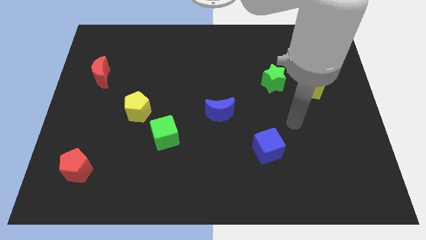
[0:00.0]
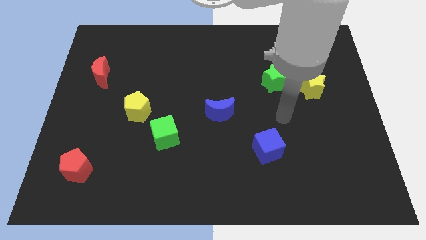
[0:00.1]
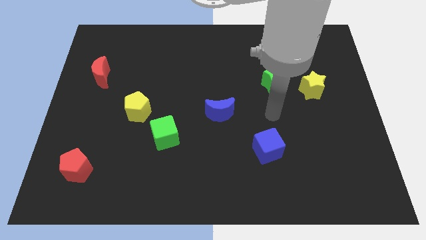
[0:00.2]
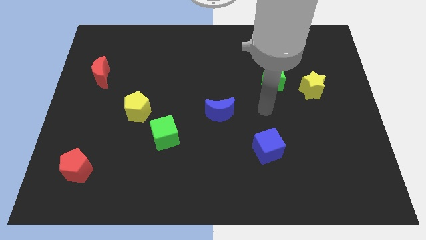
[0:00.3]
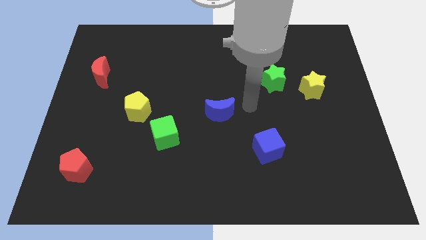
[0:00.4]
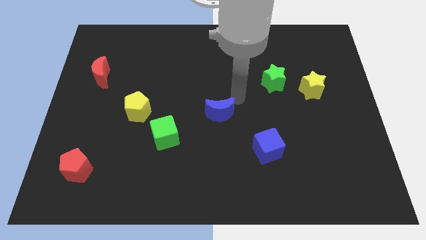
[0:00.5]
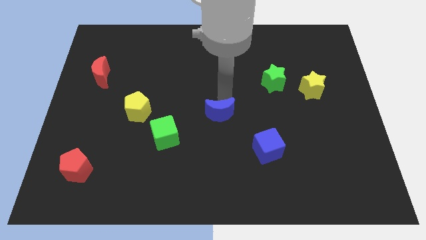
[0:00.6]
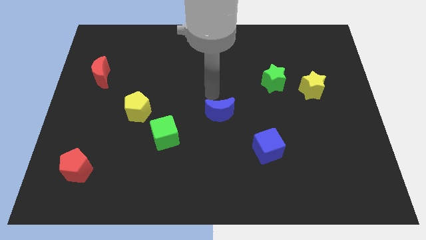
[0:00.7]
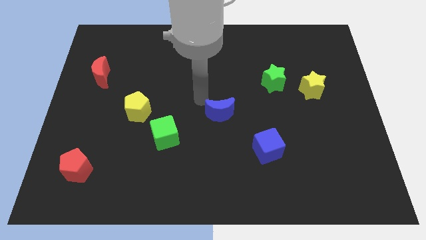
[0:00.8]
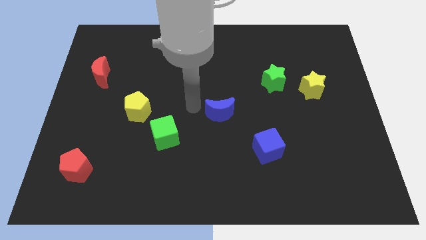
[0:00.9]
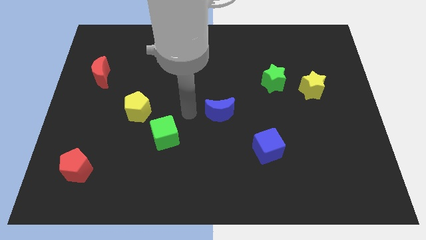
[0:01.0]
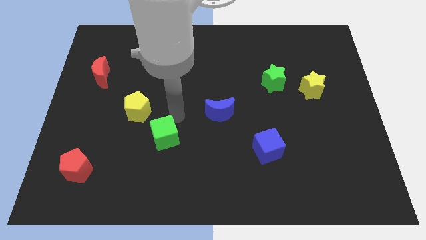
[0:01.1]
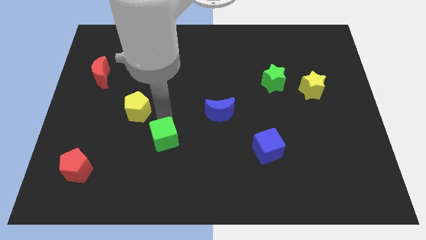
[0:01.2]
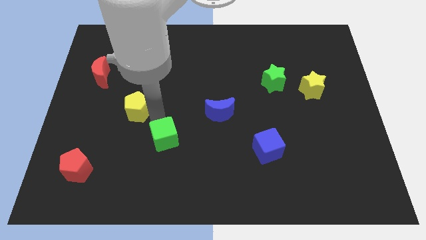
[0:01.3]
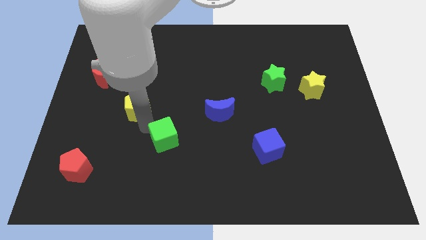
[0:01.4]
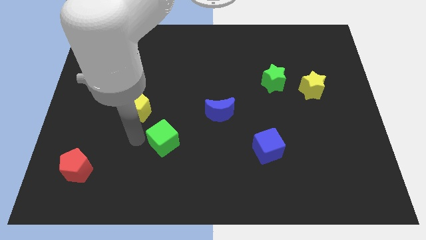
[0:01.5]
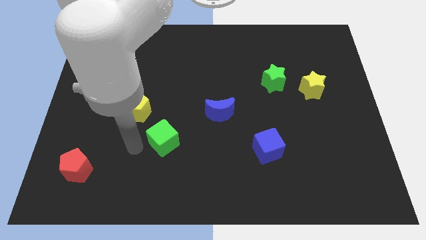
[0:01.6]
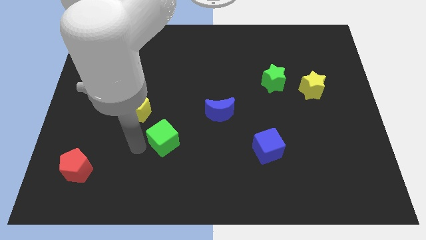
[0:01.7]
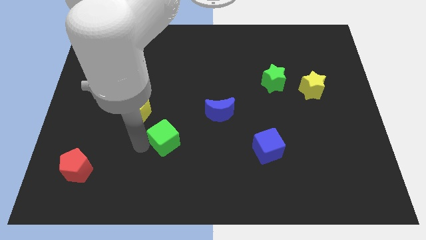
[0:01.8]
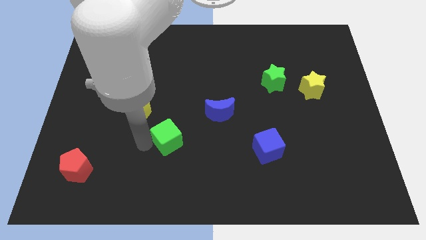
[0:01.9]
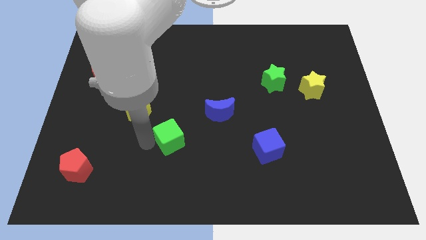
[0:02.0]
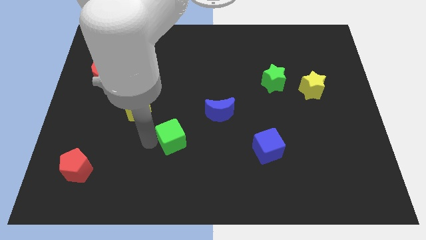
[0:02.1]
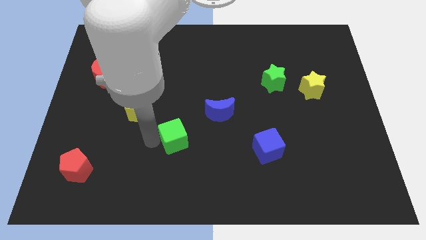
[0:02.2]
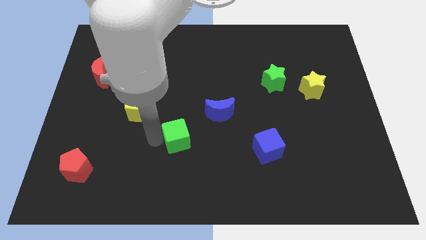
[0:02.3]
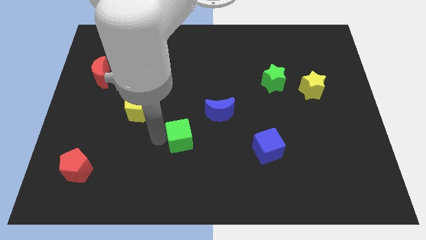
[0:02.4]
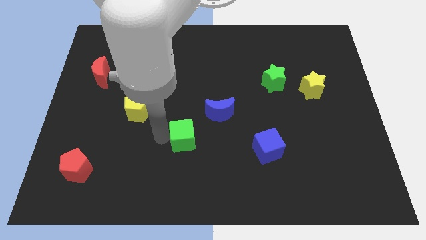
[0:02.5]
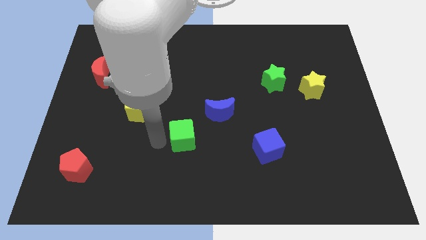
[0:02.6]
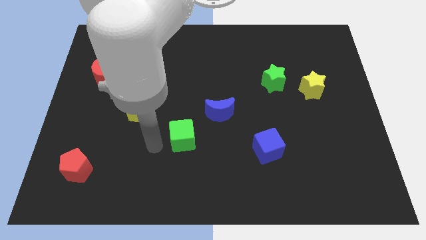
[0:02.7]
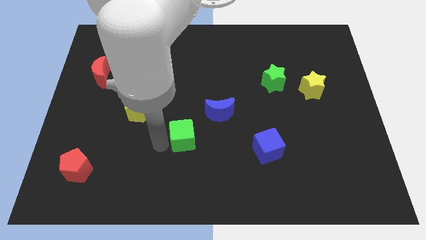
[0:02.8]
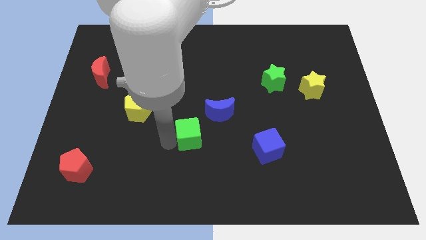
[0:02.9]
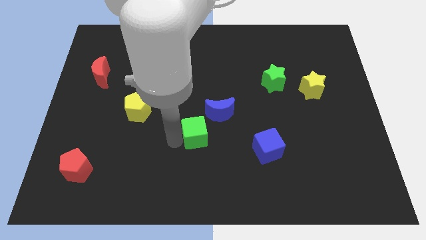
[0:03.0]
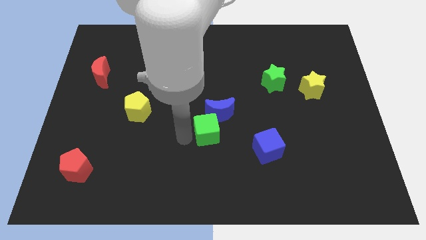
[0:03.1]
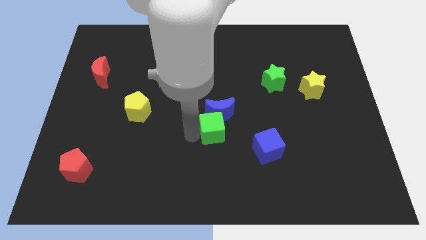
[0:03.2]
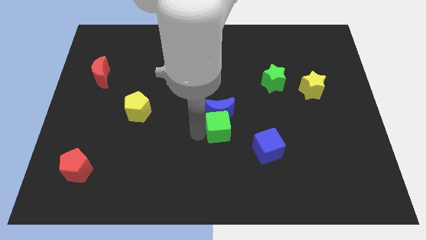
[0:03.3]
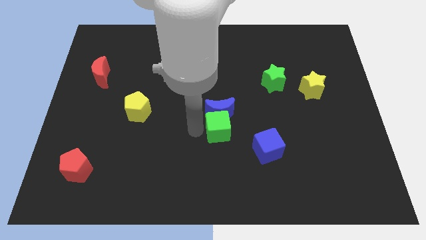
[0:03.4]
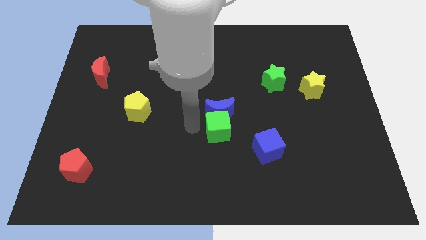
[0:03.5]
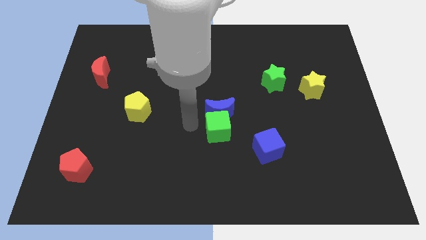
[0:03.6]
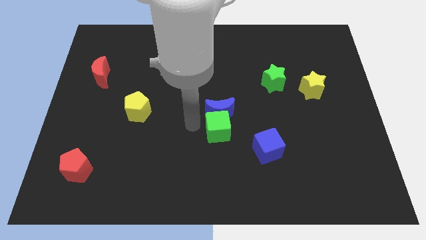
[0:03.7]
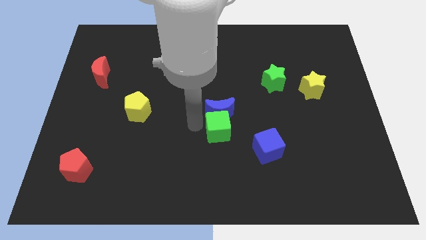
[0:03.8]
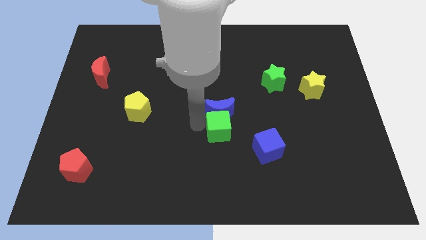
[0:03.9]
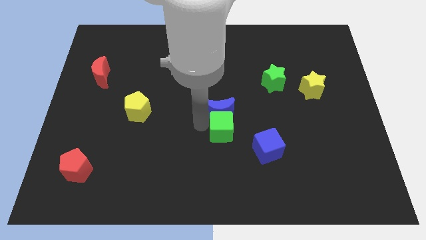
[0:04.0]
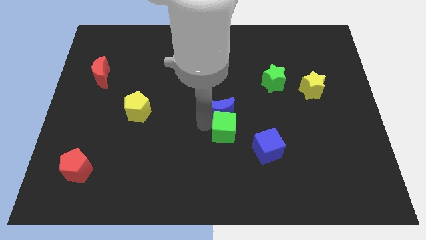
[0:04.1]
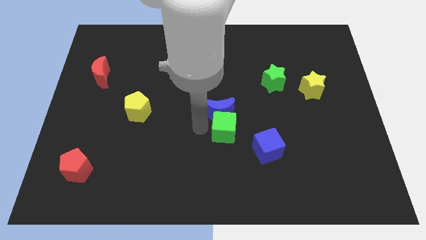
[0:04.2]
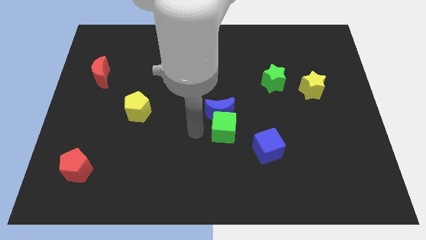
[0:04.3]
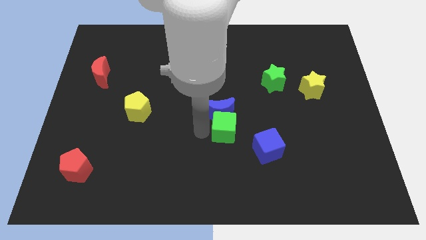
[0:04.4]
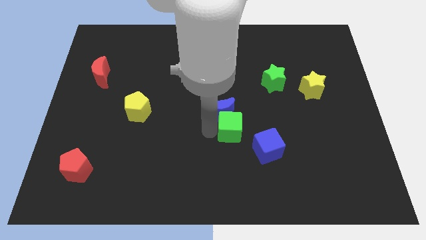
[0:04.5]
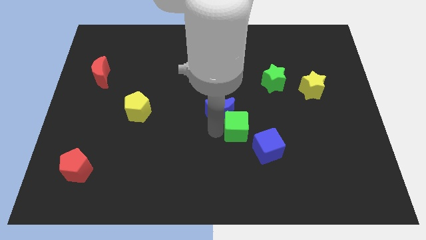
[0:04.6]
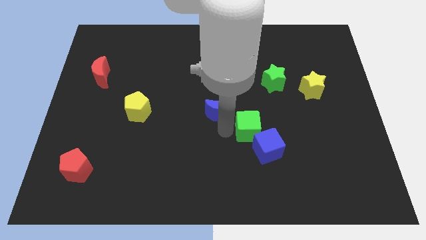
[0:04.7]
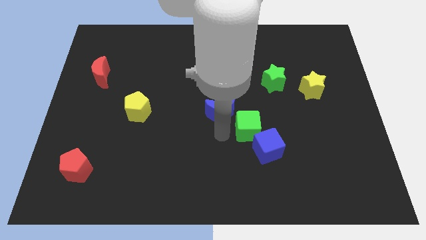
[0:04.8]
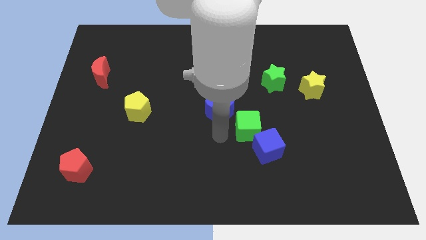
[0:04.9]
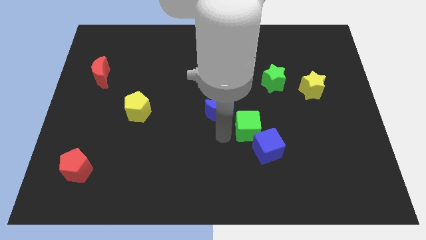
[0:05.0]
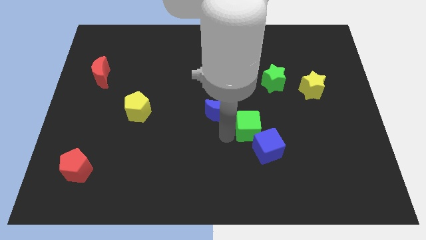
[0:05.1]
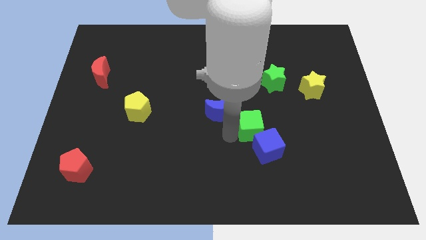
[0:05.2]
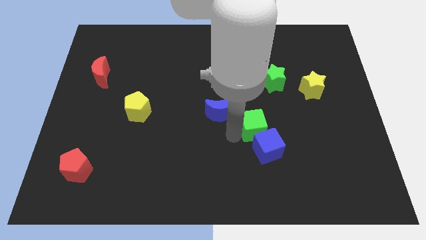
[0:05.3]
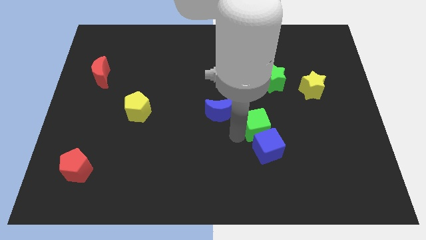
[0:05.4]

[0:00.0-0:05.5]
push the green cube right

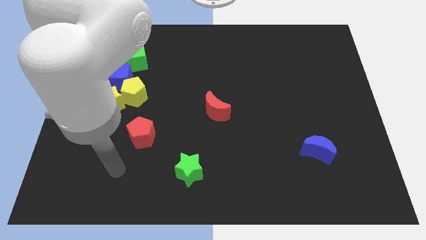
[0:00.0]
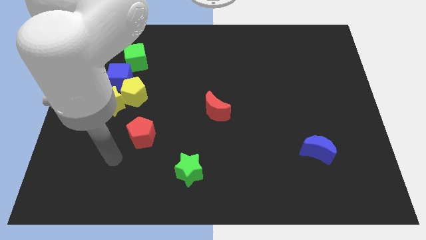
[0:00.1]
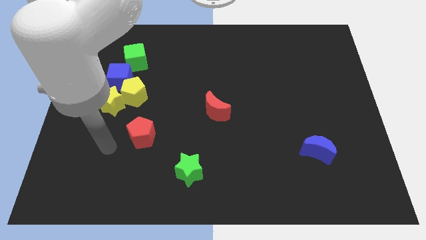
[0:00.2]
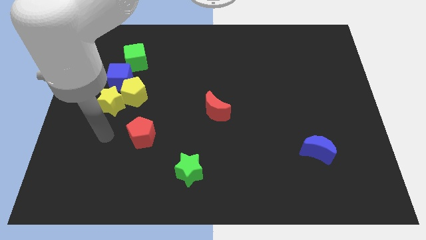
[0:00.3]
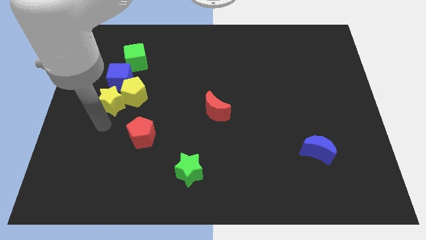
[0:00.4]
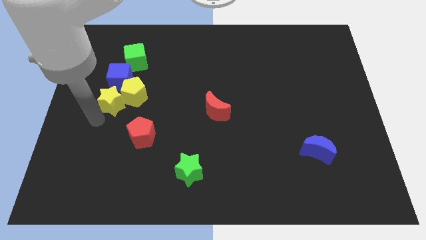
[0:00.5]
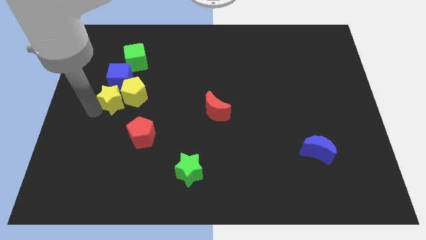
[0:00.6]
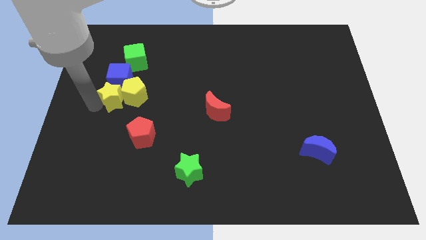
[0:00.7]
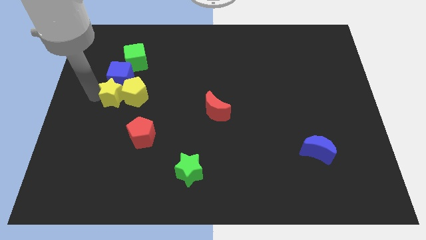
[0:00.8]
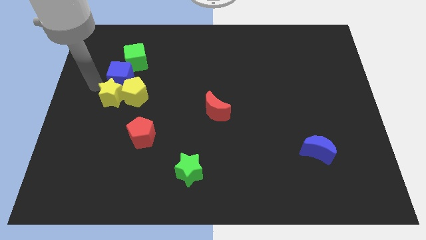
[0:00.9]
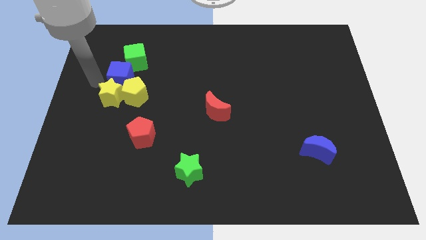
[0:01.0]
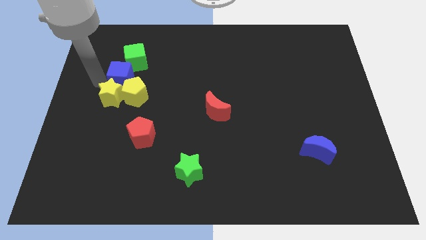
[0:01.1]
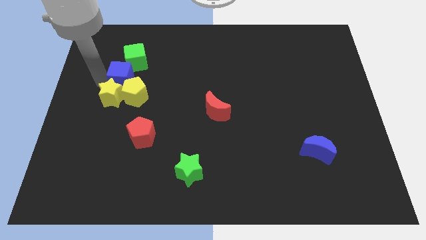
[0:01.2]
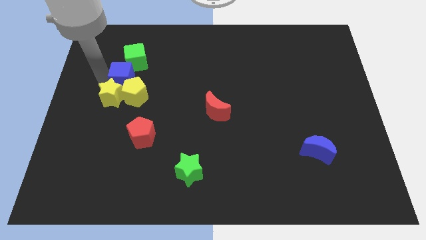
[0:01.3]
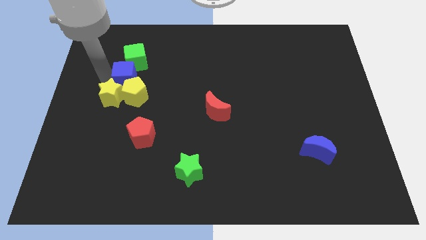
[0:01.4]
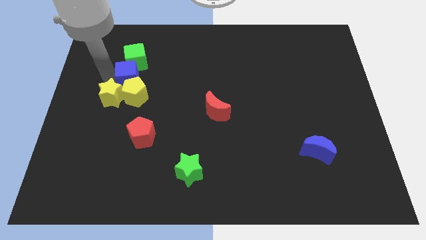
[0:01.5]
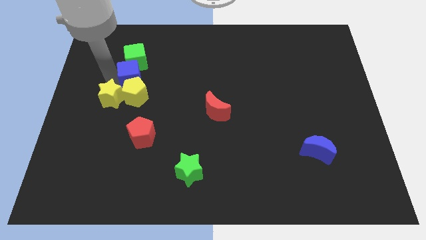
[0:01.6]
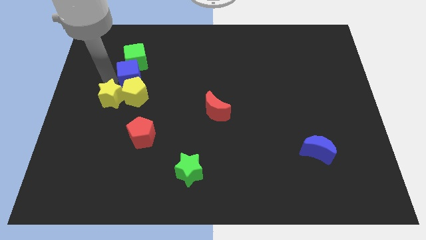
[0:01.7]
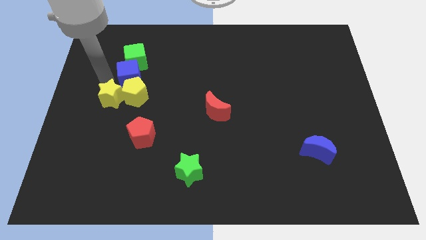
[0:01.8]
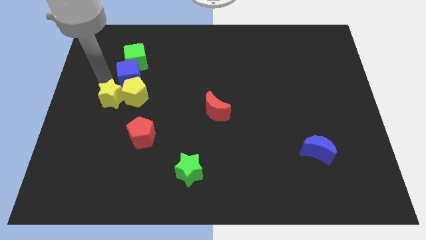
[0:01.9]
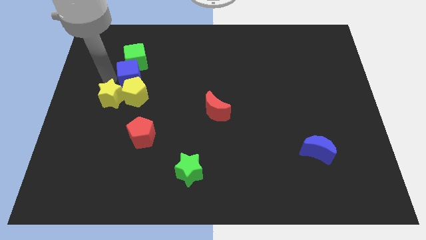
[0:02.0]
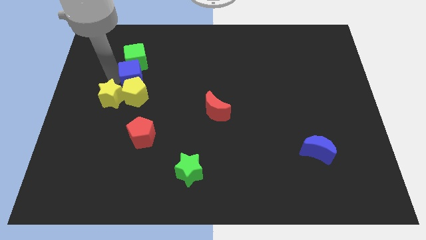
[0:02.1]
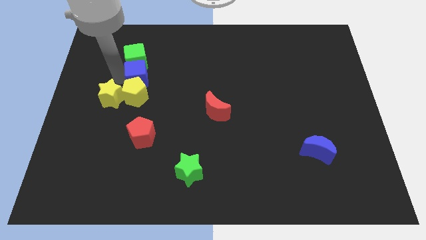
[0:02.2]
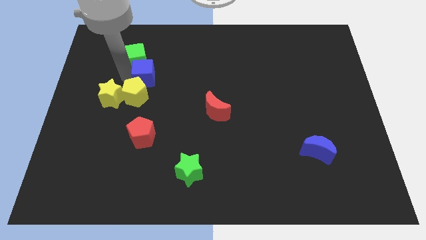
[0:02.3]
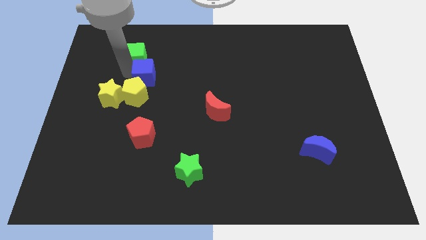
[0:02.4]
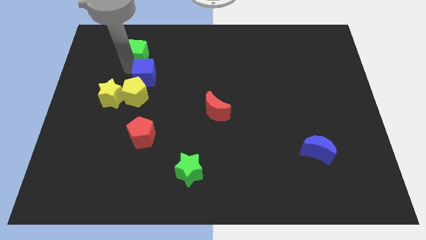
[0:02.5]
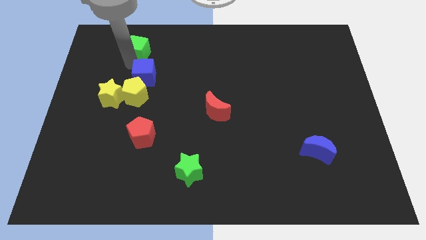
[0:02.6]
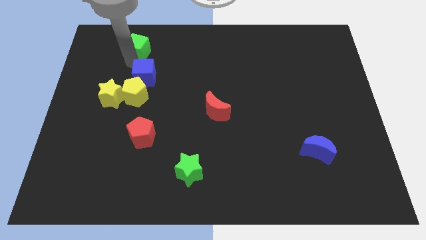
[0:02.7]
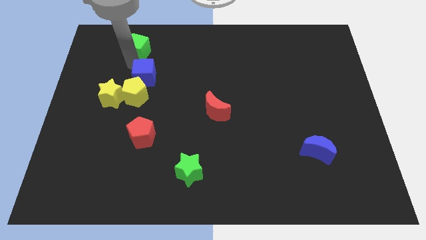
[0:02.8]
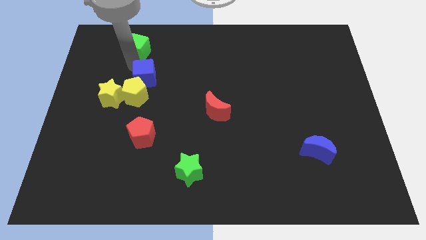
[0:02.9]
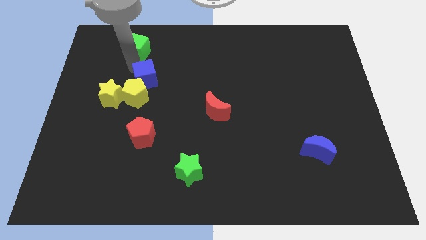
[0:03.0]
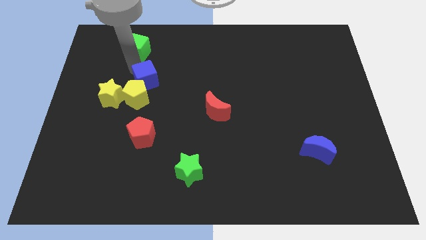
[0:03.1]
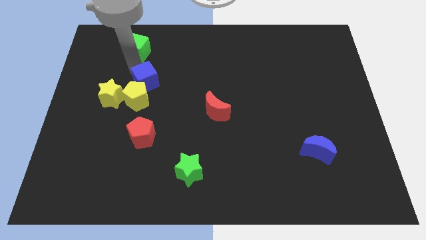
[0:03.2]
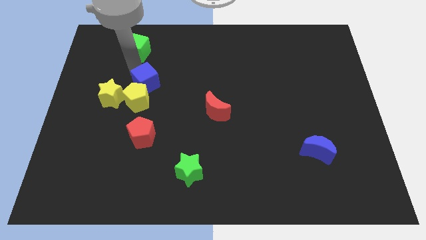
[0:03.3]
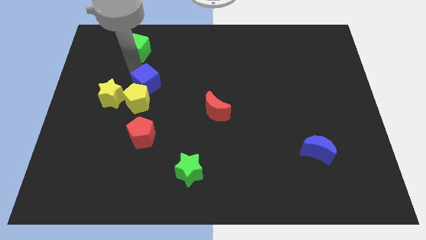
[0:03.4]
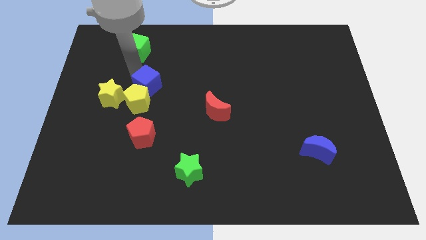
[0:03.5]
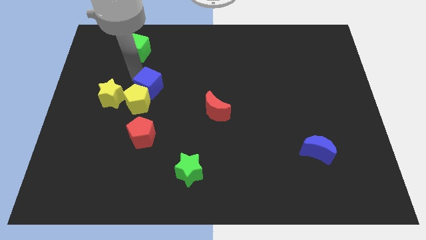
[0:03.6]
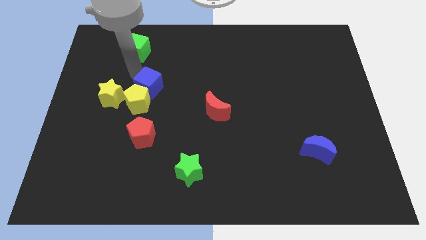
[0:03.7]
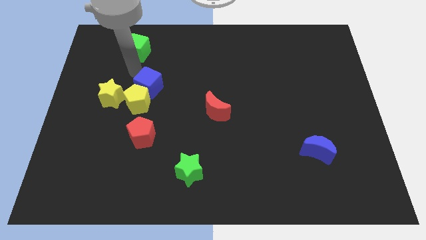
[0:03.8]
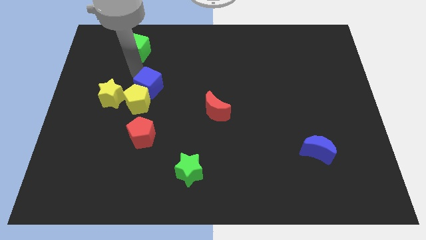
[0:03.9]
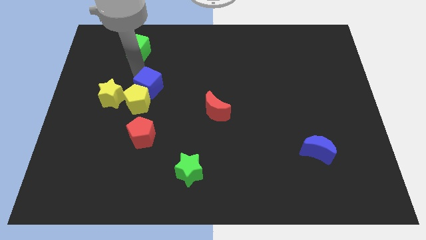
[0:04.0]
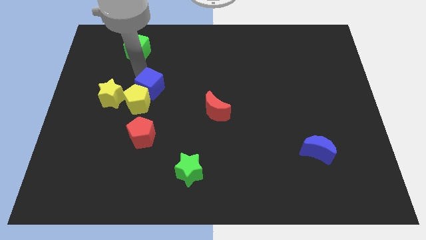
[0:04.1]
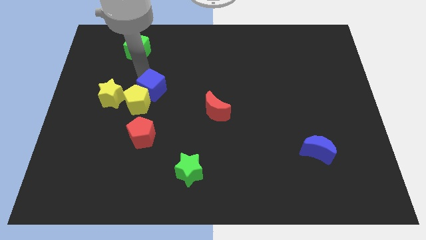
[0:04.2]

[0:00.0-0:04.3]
move the blue cube down and to the right diagonally somewhat
